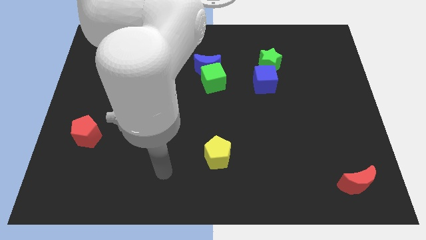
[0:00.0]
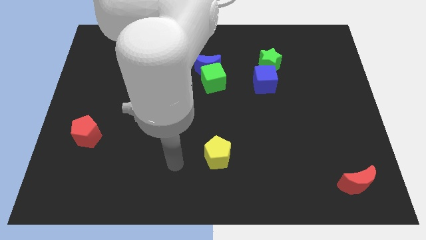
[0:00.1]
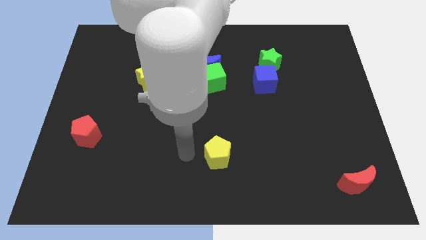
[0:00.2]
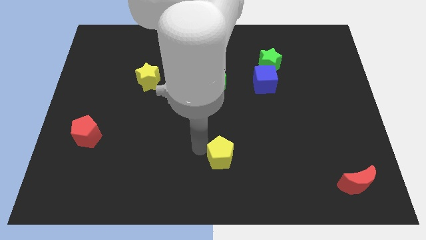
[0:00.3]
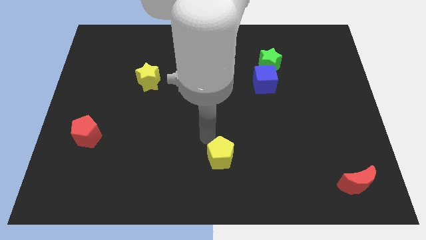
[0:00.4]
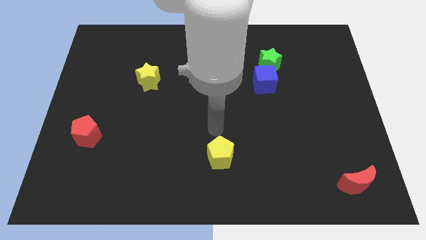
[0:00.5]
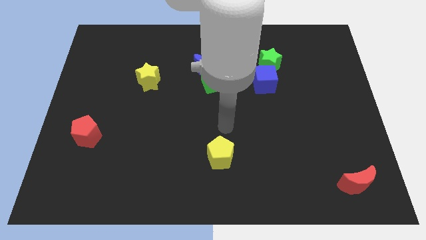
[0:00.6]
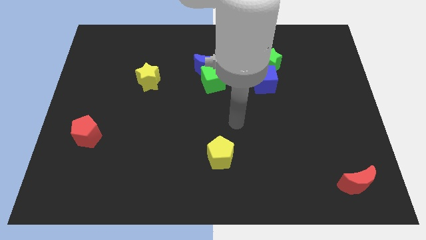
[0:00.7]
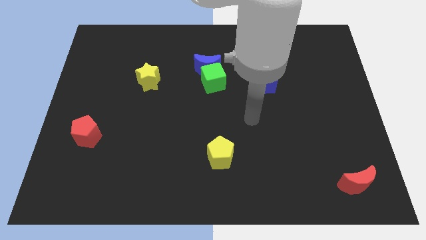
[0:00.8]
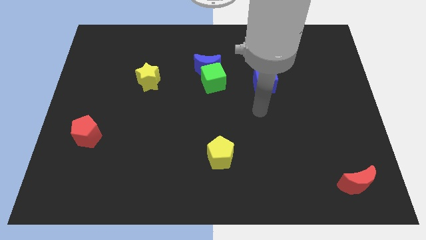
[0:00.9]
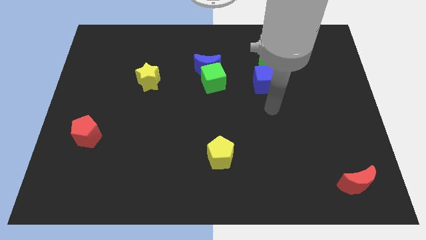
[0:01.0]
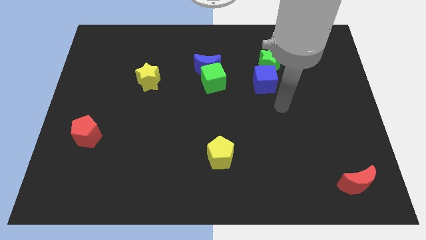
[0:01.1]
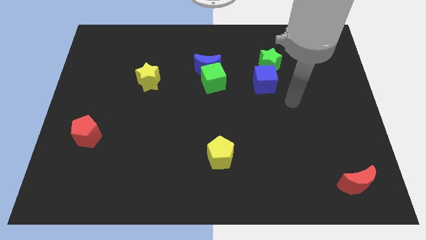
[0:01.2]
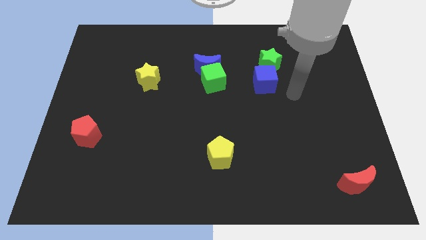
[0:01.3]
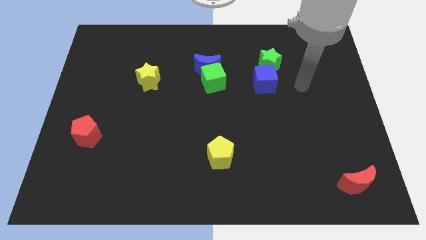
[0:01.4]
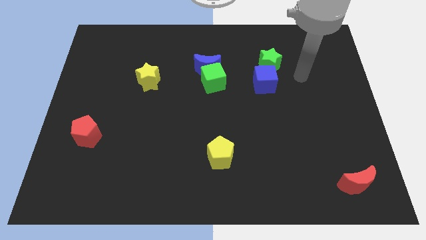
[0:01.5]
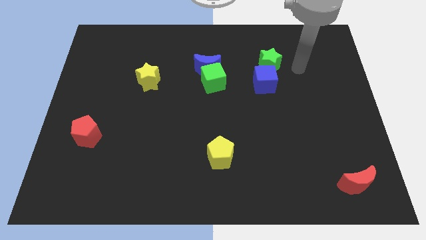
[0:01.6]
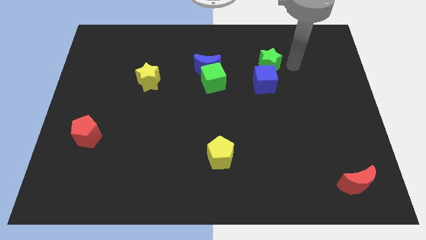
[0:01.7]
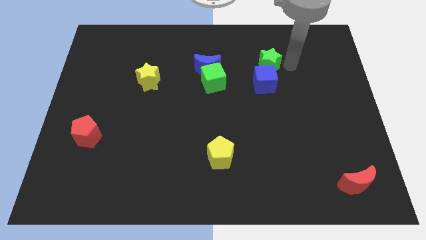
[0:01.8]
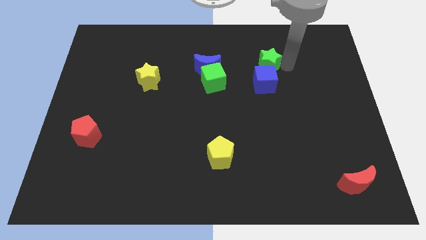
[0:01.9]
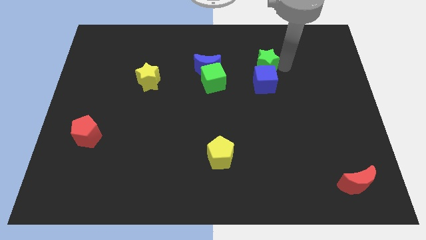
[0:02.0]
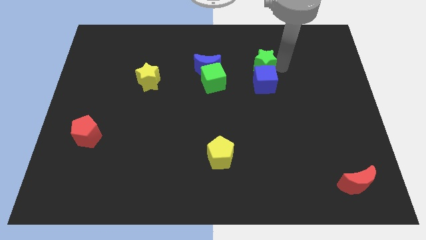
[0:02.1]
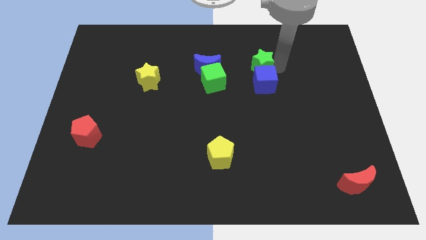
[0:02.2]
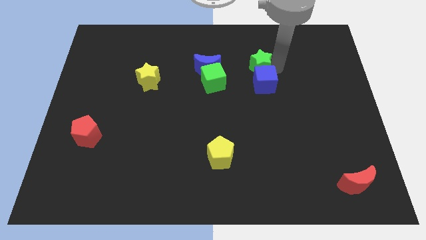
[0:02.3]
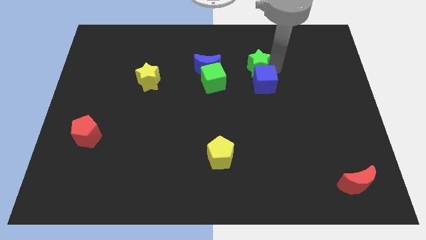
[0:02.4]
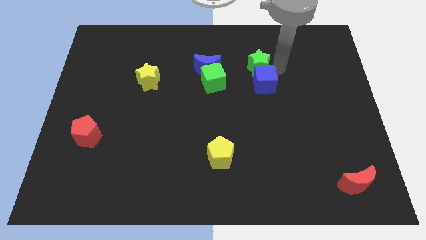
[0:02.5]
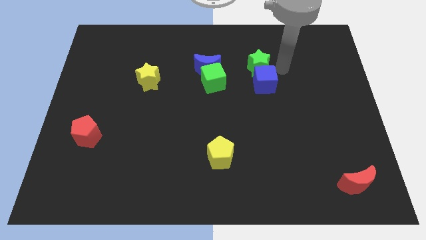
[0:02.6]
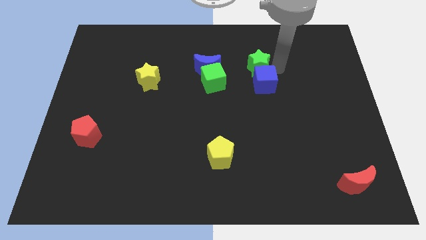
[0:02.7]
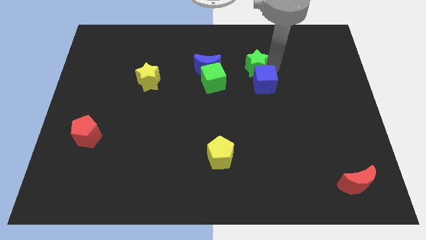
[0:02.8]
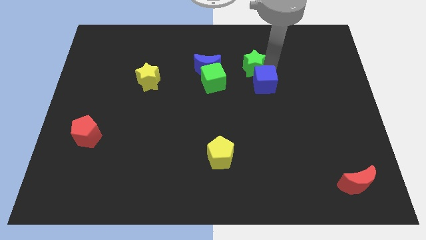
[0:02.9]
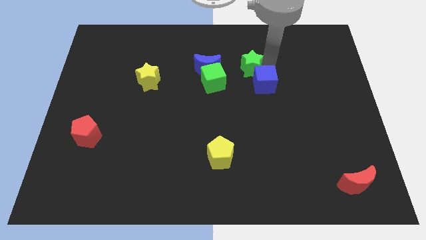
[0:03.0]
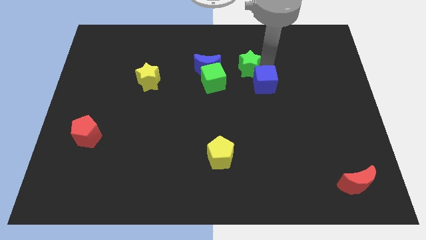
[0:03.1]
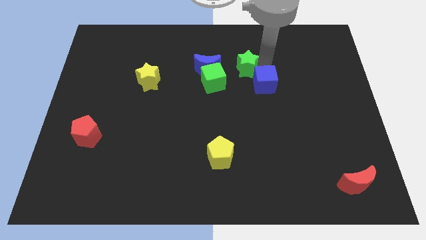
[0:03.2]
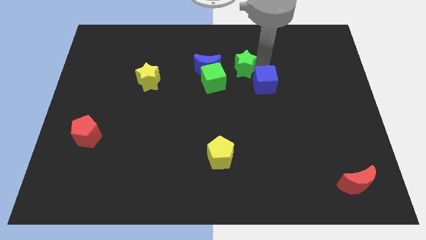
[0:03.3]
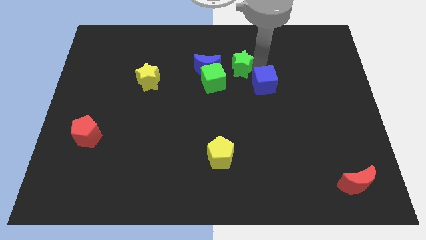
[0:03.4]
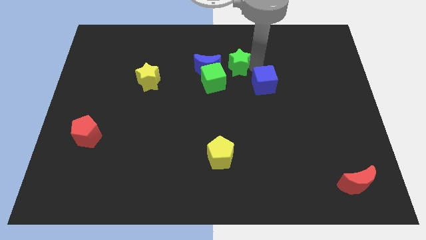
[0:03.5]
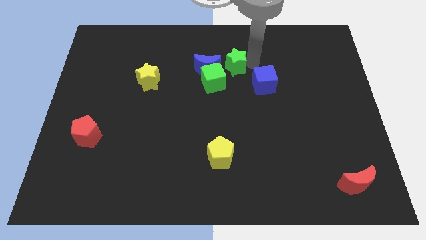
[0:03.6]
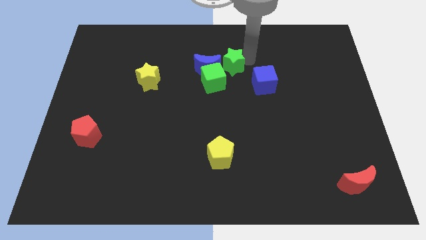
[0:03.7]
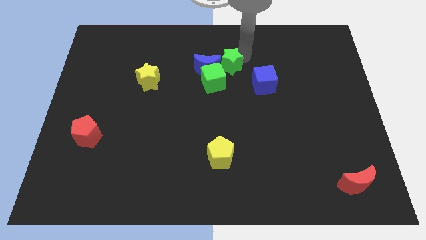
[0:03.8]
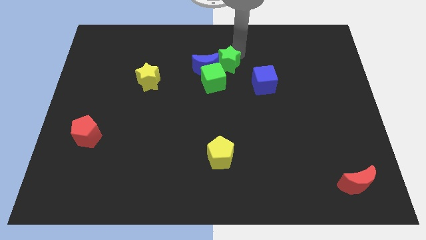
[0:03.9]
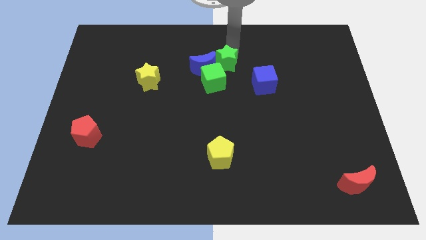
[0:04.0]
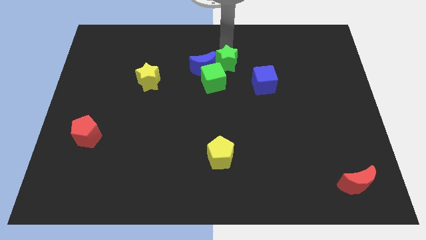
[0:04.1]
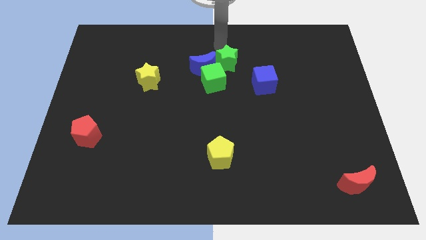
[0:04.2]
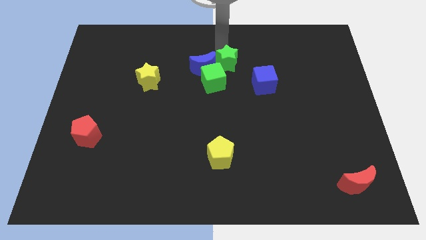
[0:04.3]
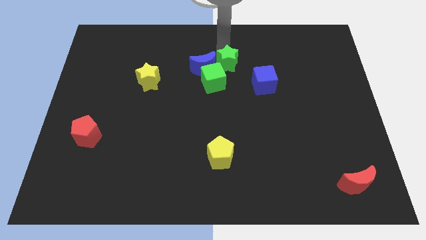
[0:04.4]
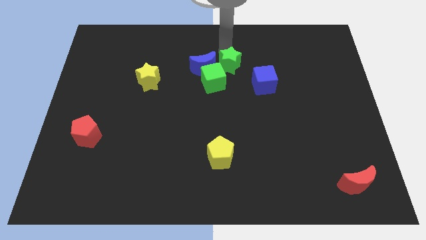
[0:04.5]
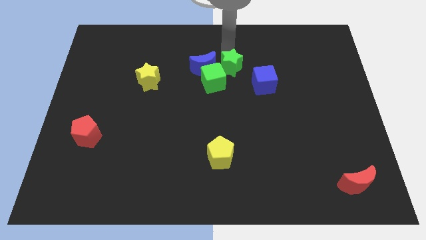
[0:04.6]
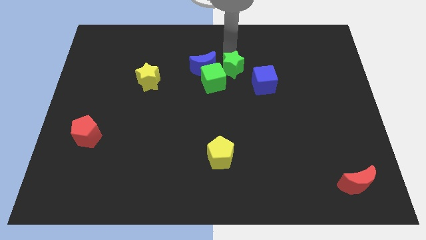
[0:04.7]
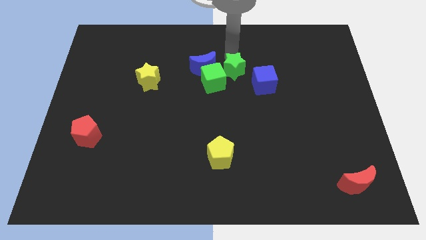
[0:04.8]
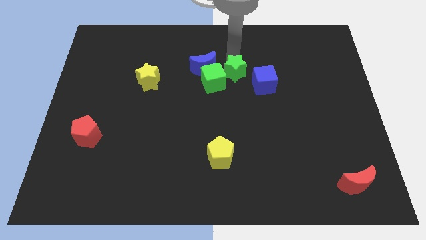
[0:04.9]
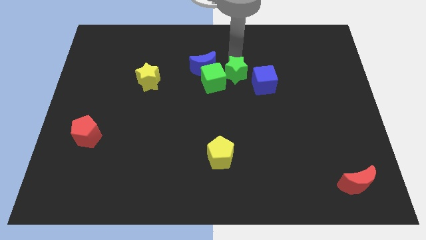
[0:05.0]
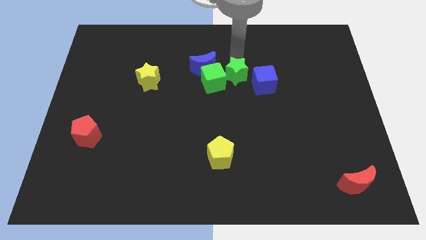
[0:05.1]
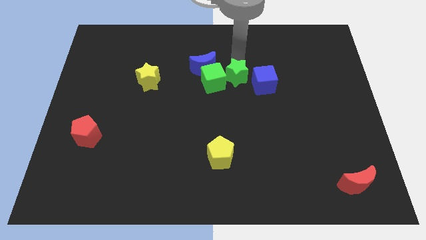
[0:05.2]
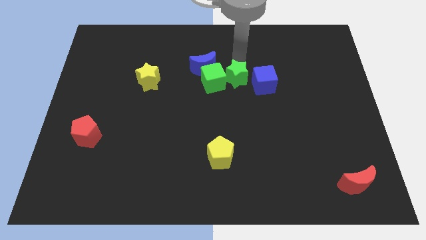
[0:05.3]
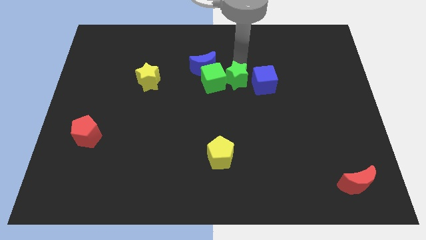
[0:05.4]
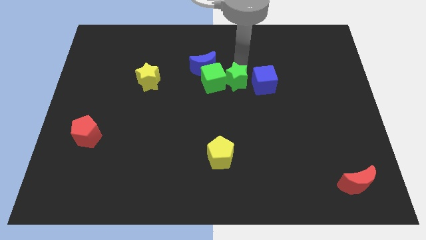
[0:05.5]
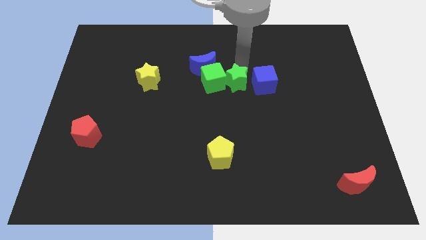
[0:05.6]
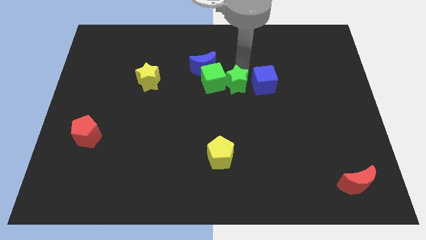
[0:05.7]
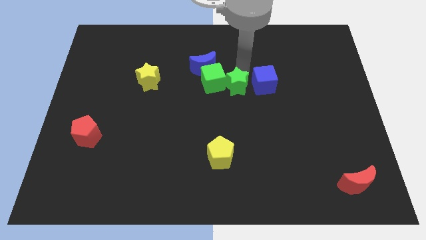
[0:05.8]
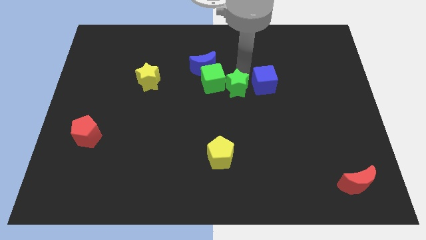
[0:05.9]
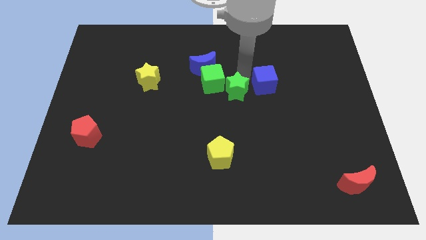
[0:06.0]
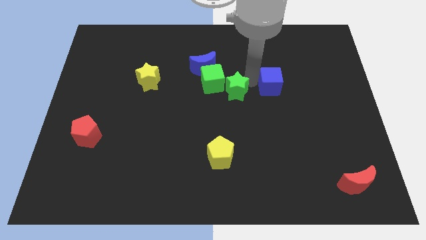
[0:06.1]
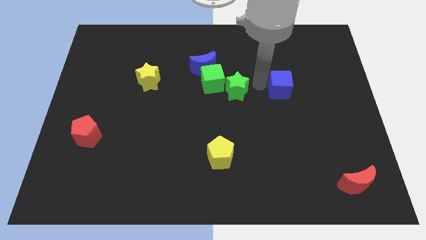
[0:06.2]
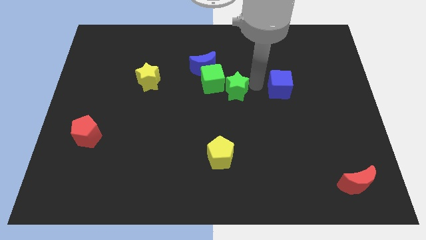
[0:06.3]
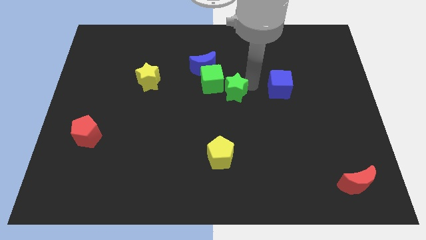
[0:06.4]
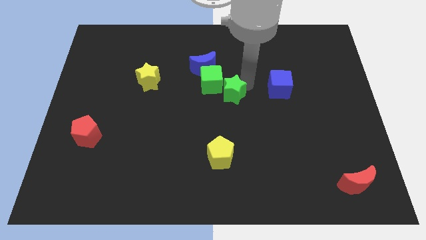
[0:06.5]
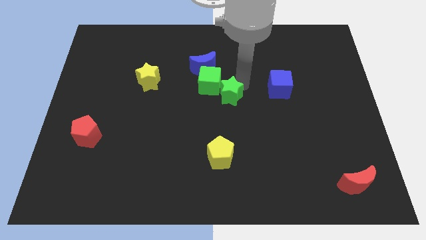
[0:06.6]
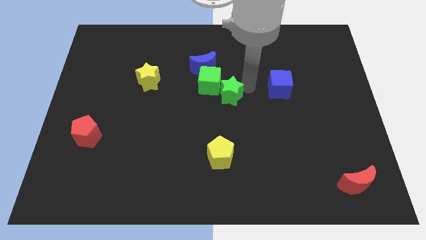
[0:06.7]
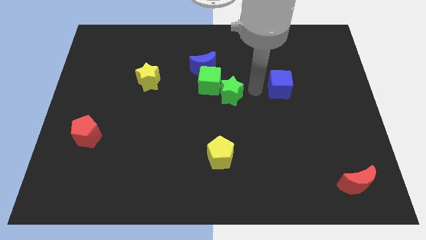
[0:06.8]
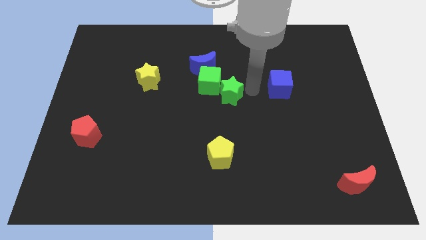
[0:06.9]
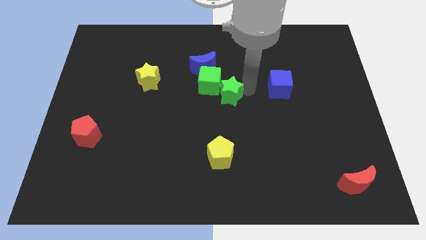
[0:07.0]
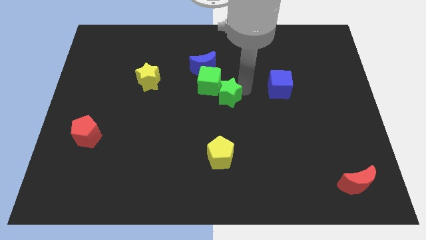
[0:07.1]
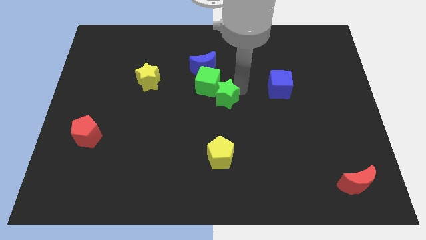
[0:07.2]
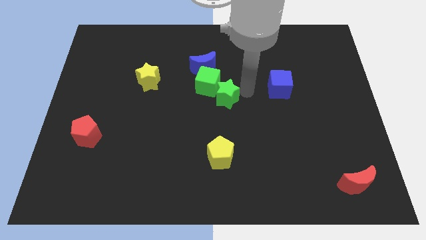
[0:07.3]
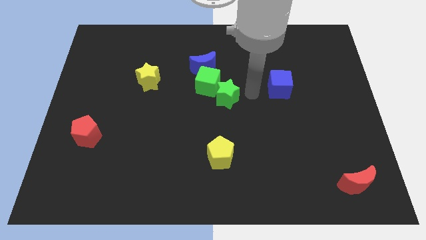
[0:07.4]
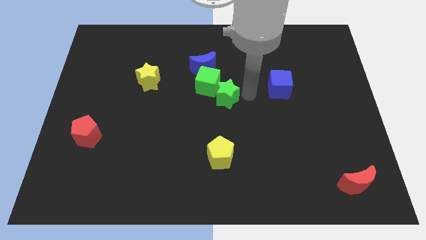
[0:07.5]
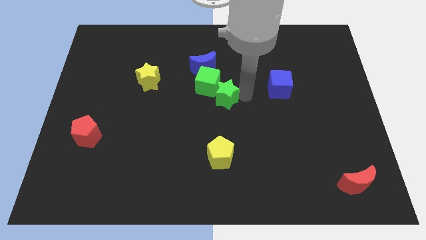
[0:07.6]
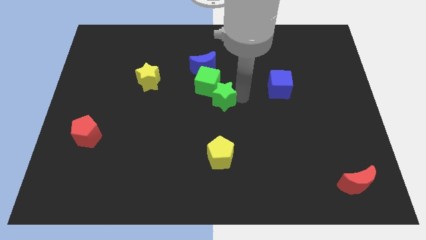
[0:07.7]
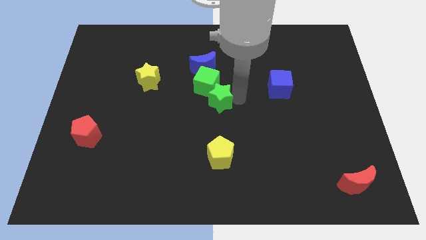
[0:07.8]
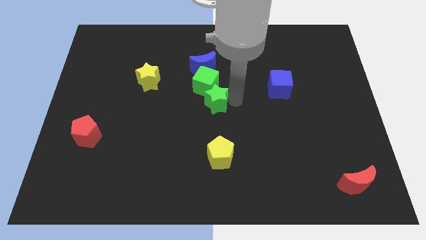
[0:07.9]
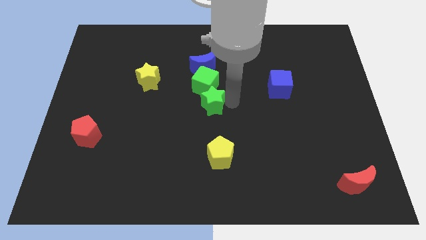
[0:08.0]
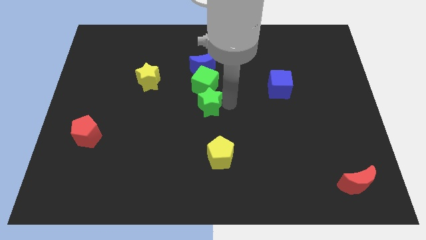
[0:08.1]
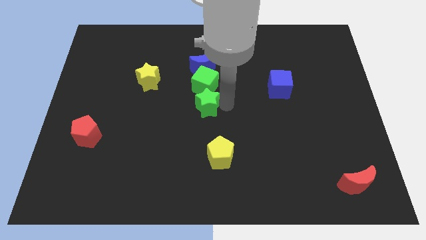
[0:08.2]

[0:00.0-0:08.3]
put the green star to the bottom left side of the green cube
